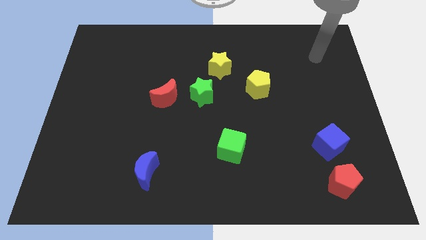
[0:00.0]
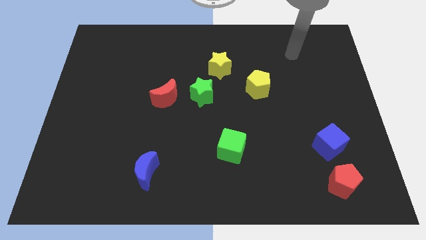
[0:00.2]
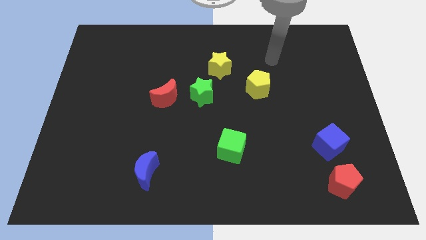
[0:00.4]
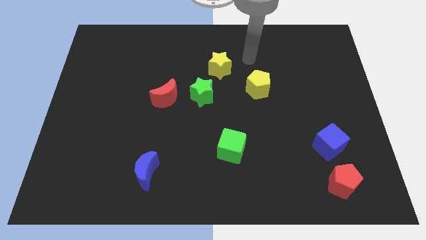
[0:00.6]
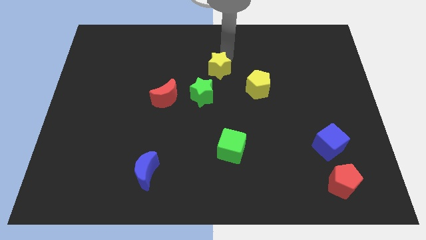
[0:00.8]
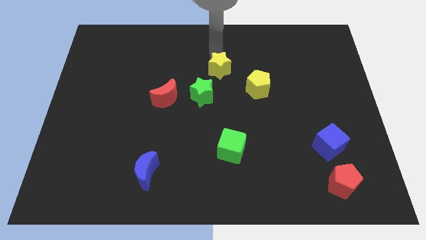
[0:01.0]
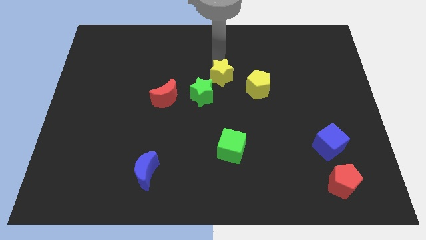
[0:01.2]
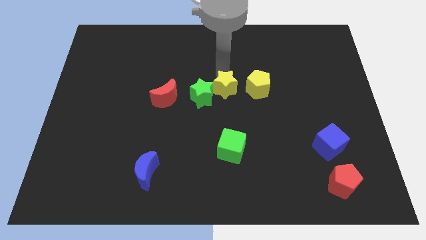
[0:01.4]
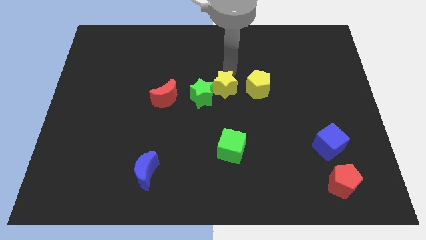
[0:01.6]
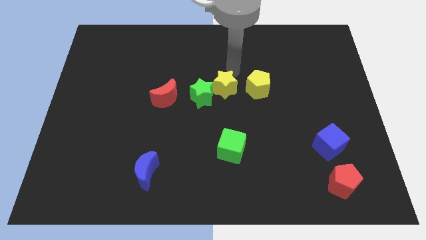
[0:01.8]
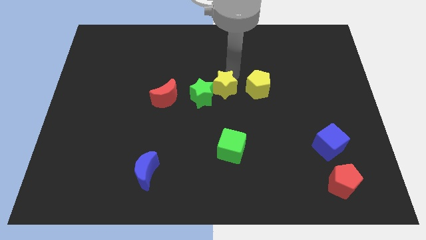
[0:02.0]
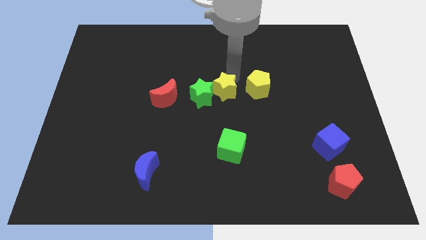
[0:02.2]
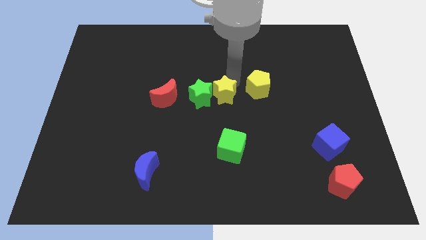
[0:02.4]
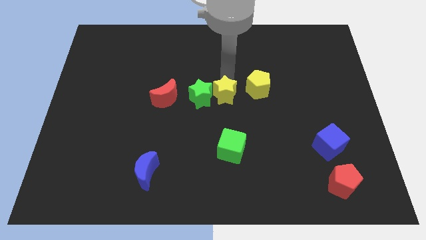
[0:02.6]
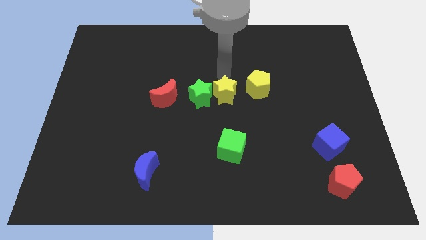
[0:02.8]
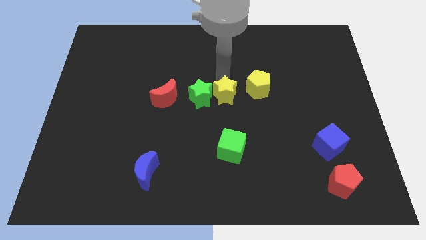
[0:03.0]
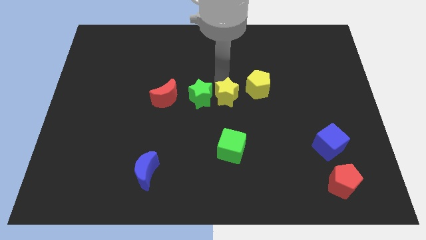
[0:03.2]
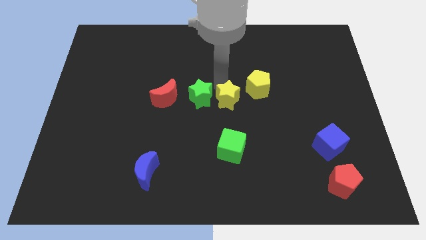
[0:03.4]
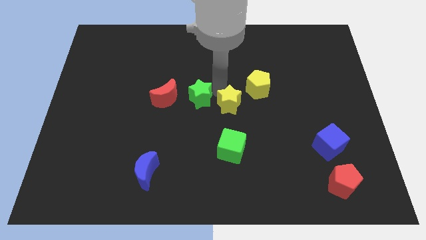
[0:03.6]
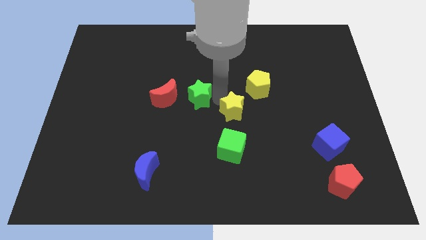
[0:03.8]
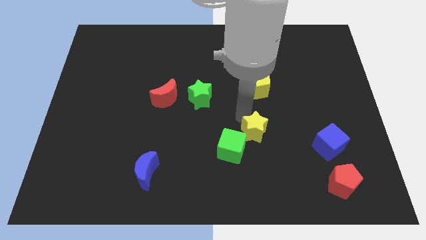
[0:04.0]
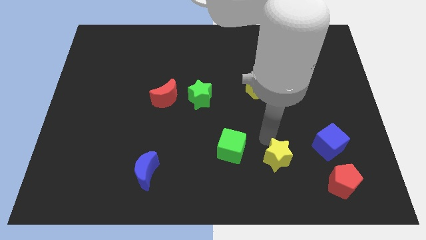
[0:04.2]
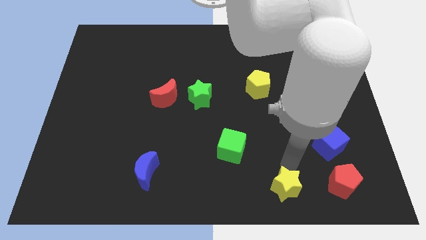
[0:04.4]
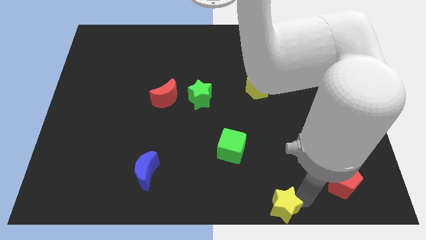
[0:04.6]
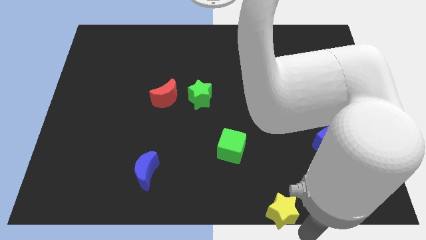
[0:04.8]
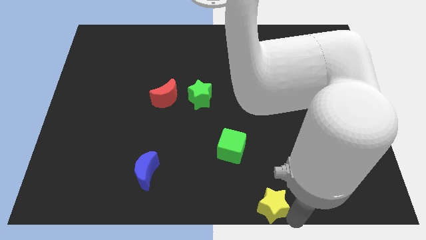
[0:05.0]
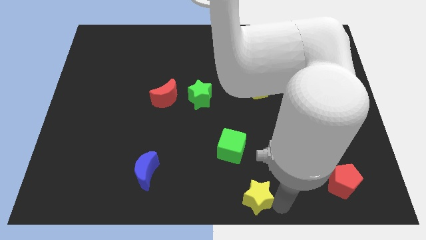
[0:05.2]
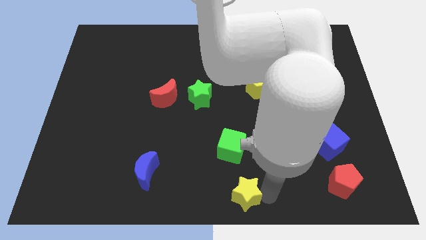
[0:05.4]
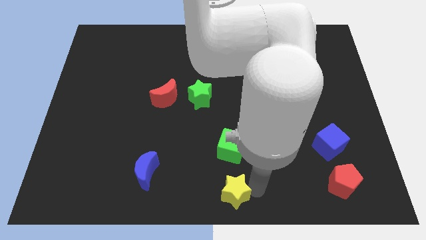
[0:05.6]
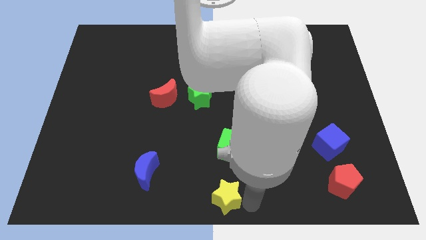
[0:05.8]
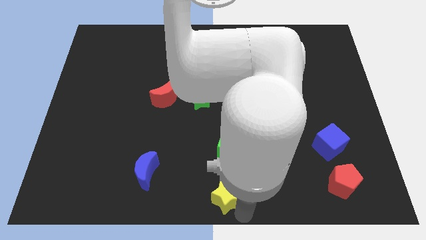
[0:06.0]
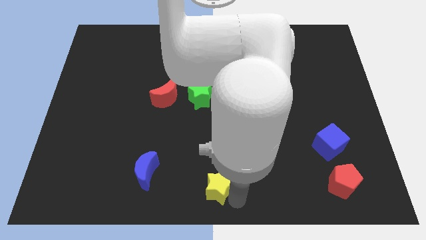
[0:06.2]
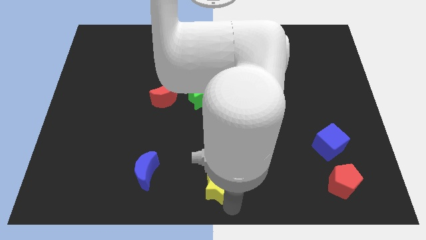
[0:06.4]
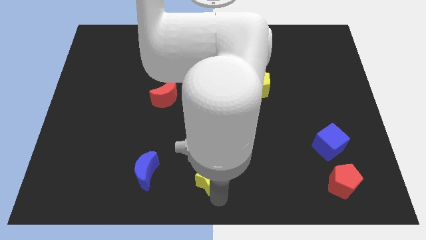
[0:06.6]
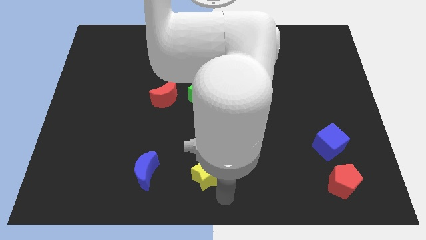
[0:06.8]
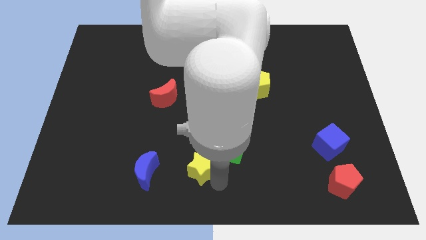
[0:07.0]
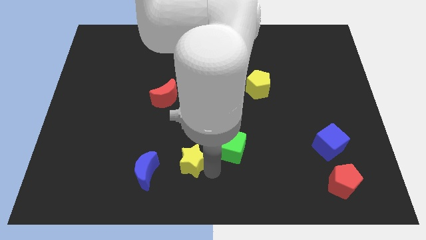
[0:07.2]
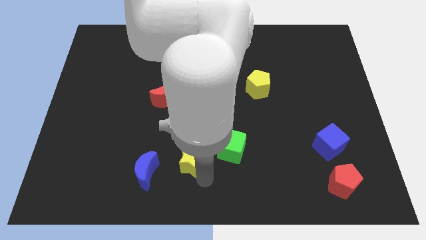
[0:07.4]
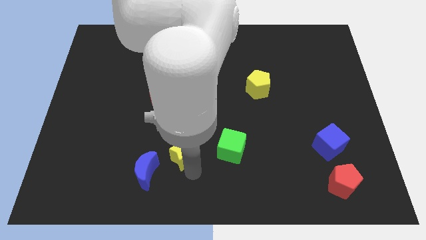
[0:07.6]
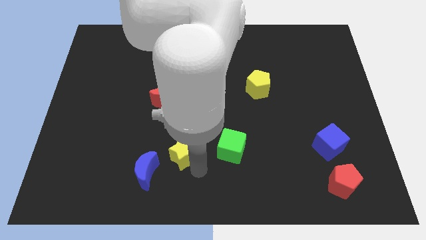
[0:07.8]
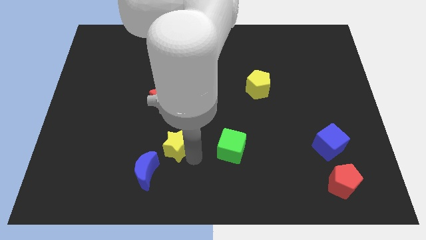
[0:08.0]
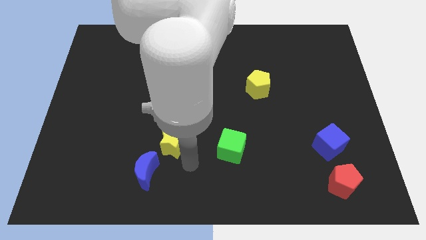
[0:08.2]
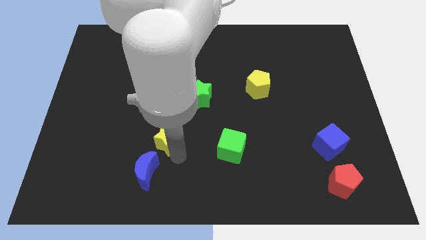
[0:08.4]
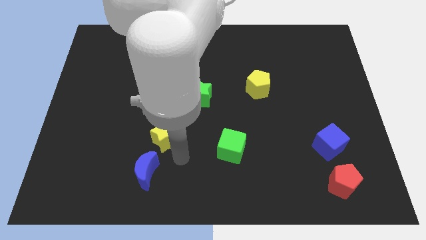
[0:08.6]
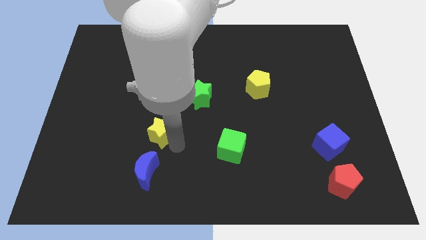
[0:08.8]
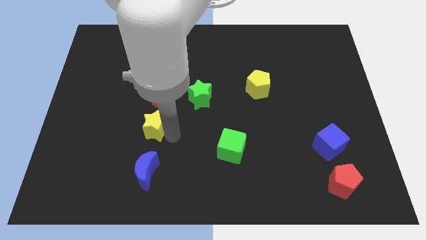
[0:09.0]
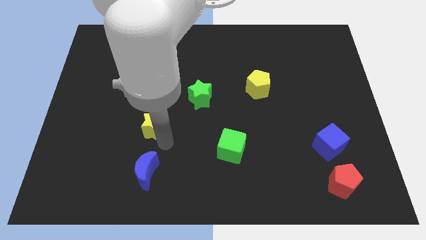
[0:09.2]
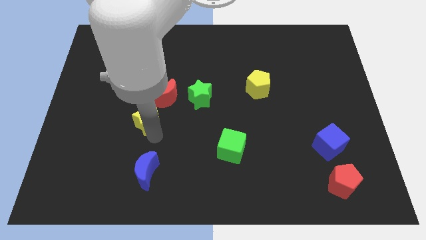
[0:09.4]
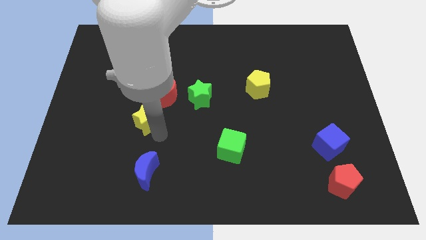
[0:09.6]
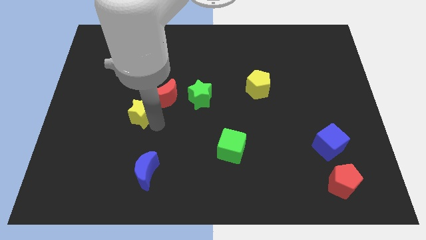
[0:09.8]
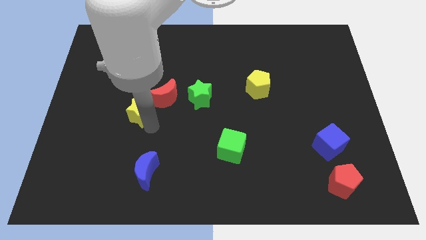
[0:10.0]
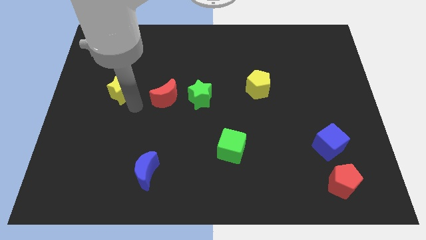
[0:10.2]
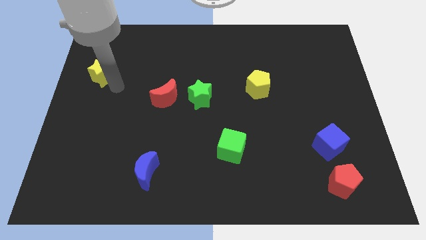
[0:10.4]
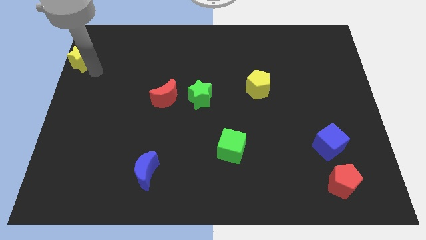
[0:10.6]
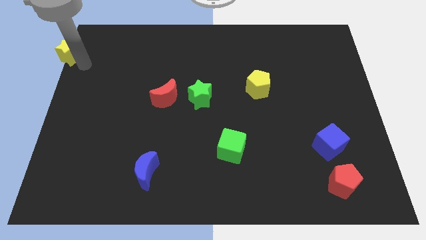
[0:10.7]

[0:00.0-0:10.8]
put the yellow star to the top left of the board
